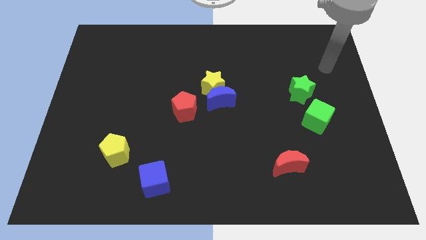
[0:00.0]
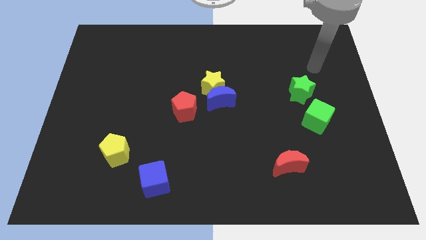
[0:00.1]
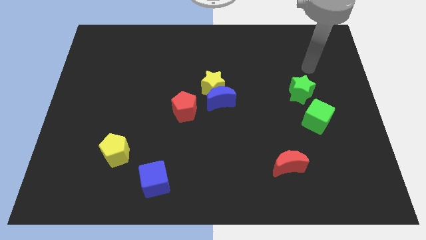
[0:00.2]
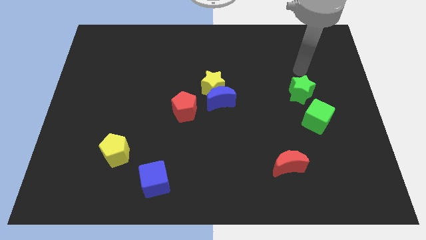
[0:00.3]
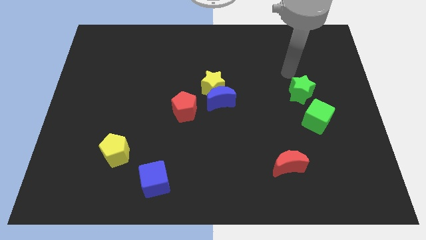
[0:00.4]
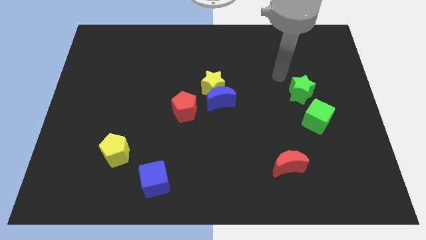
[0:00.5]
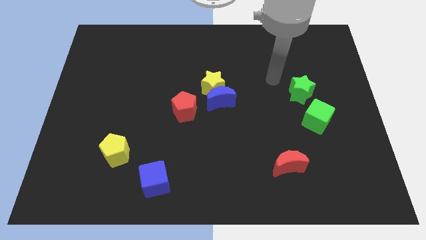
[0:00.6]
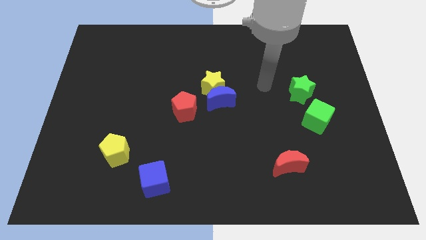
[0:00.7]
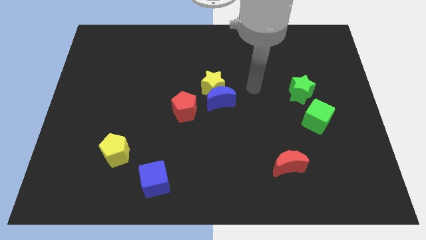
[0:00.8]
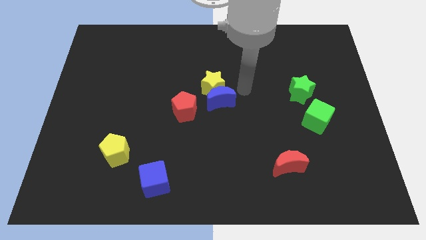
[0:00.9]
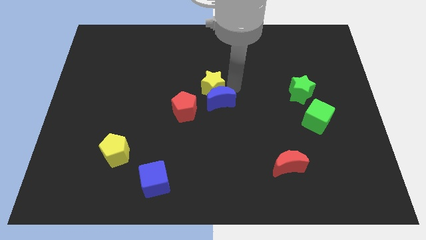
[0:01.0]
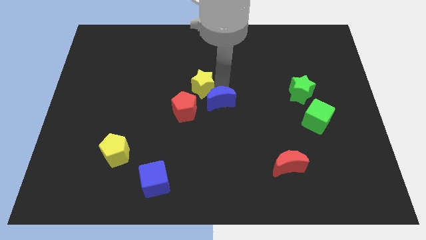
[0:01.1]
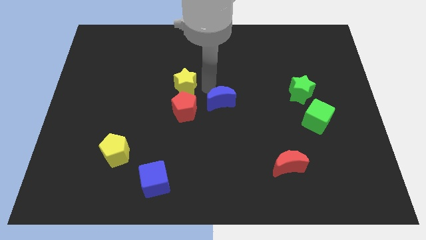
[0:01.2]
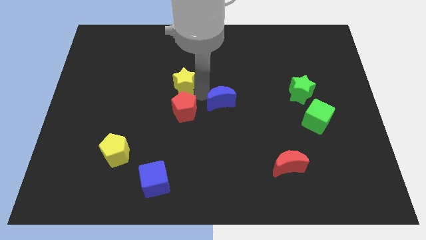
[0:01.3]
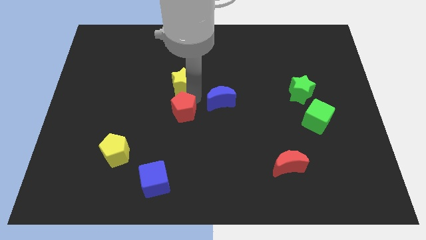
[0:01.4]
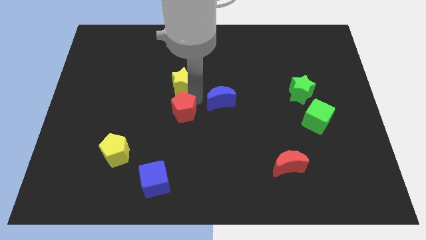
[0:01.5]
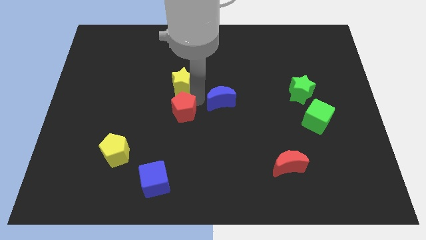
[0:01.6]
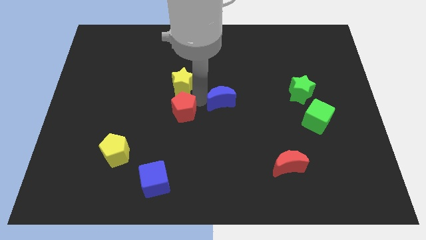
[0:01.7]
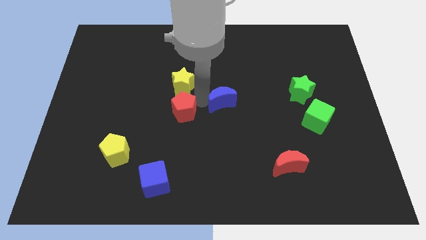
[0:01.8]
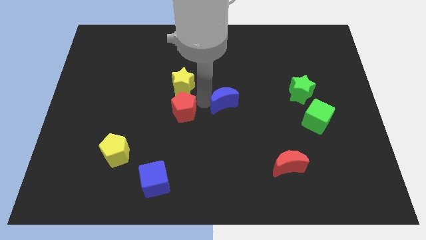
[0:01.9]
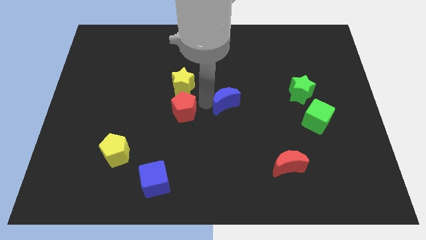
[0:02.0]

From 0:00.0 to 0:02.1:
move the blue moon away from the yellow star and red pentagon

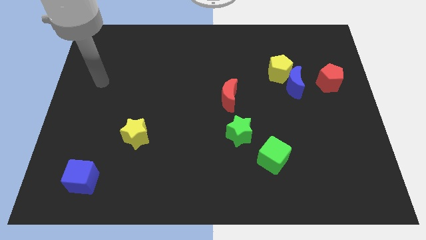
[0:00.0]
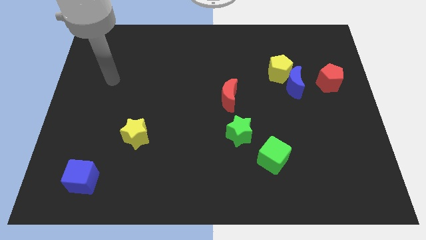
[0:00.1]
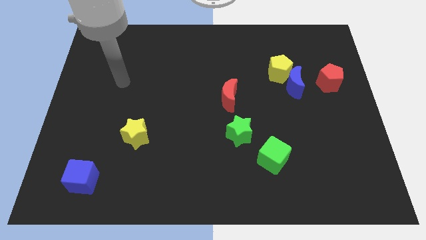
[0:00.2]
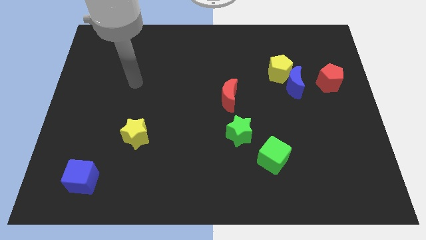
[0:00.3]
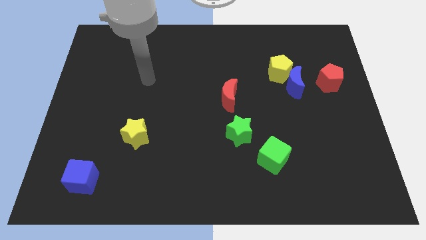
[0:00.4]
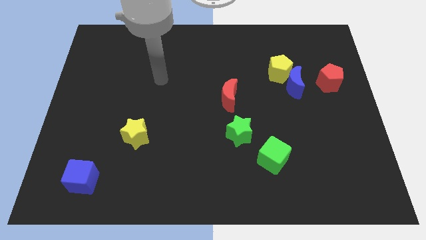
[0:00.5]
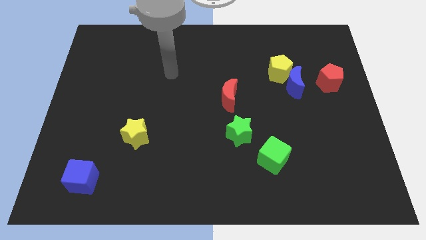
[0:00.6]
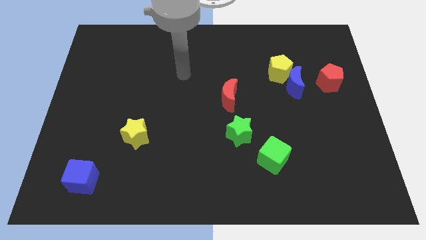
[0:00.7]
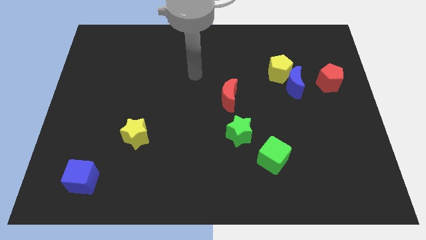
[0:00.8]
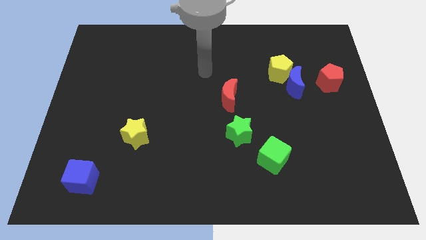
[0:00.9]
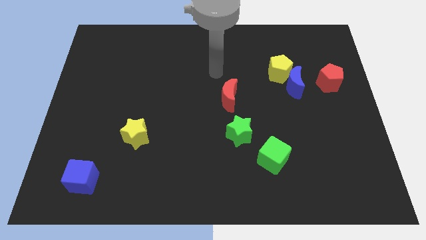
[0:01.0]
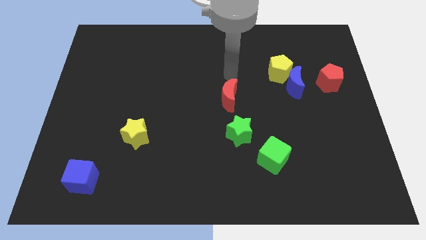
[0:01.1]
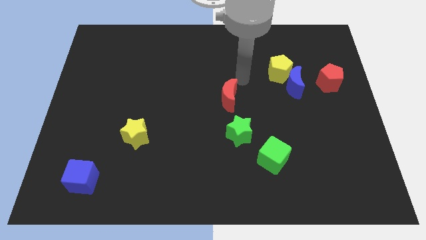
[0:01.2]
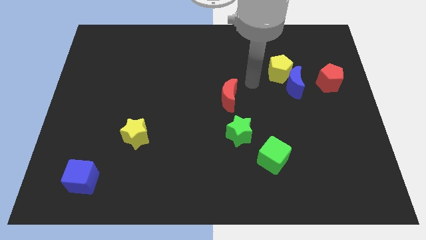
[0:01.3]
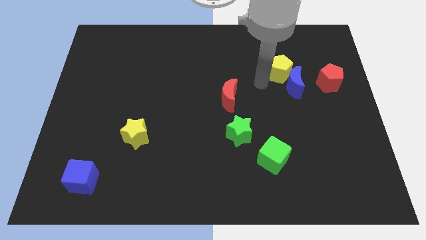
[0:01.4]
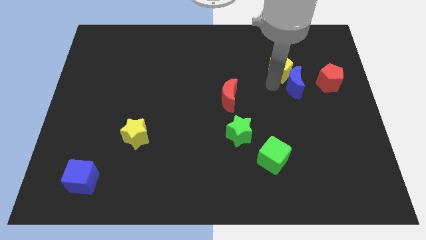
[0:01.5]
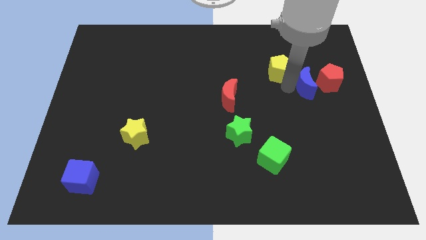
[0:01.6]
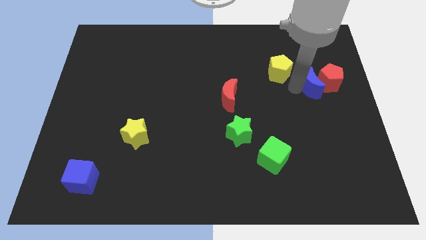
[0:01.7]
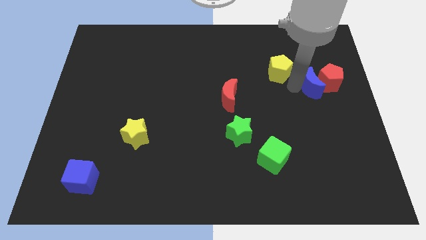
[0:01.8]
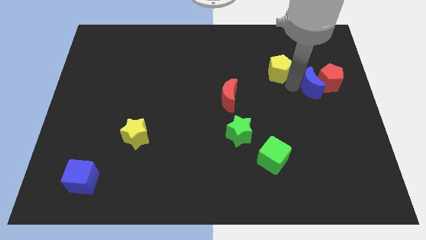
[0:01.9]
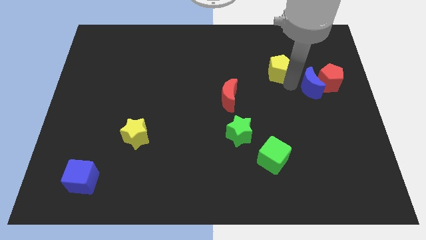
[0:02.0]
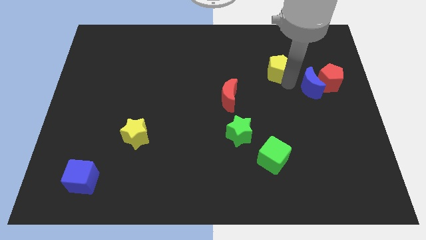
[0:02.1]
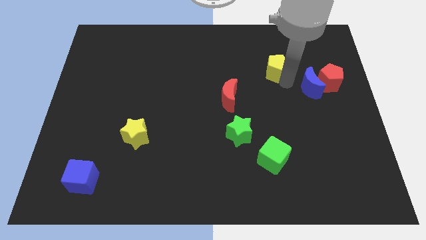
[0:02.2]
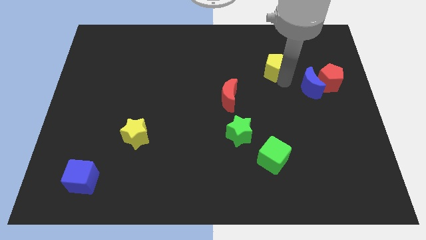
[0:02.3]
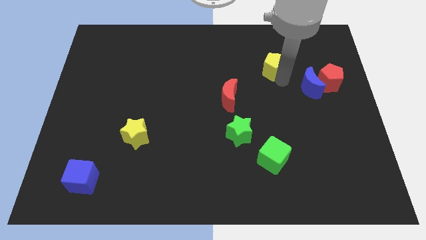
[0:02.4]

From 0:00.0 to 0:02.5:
separate the yellow pentagon from the blue moon

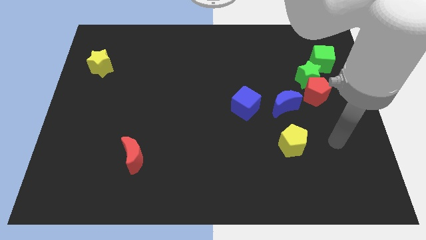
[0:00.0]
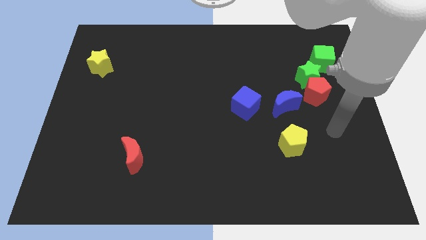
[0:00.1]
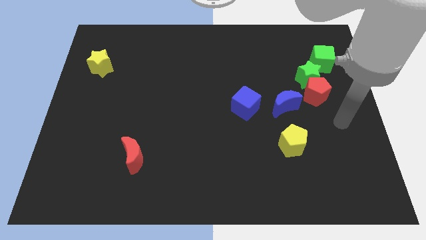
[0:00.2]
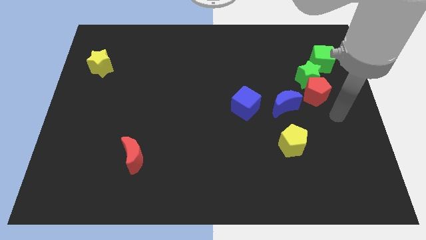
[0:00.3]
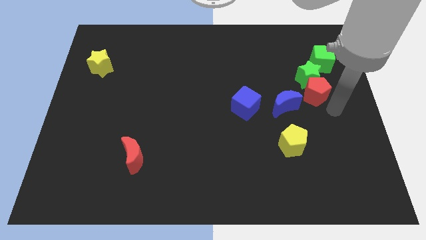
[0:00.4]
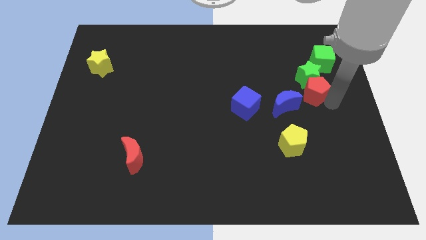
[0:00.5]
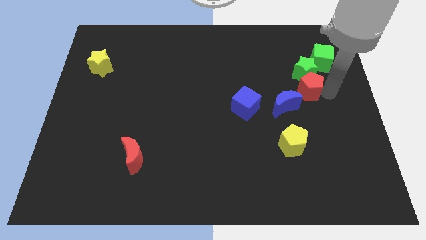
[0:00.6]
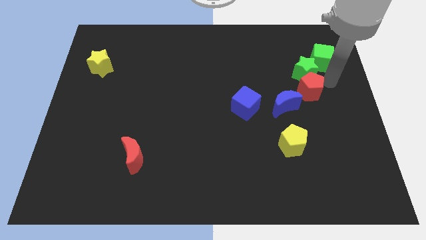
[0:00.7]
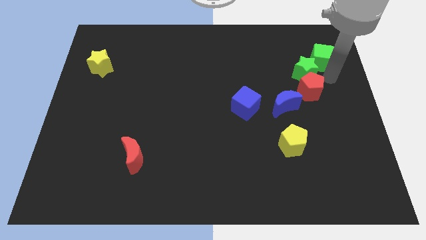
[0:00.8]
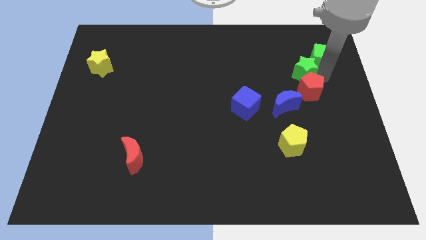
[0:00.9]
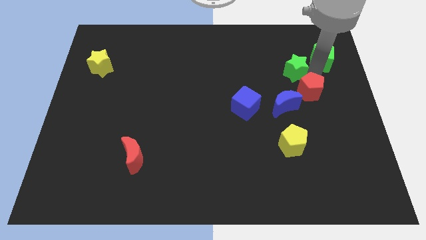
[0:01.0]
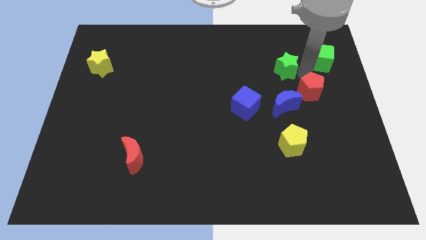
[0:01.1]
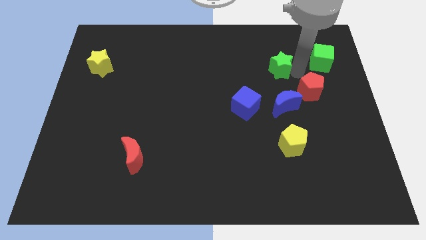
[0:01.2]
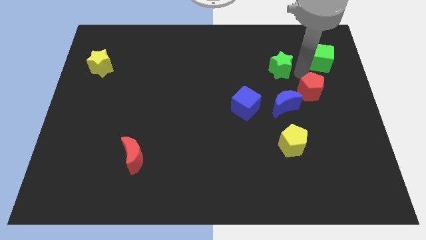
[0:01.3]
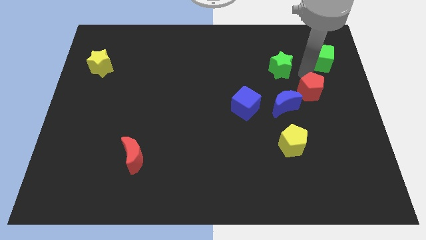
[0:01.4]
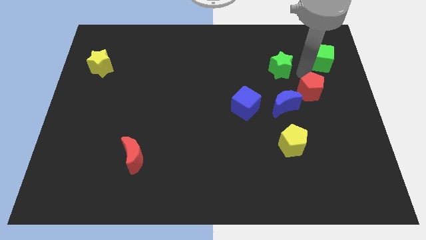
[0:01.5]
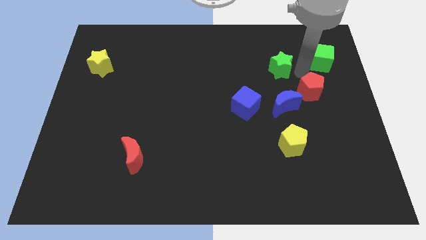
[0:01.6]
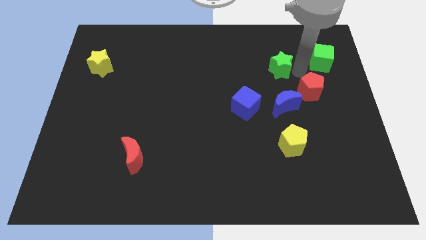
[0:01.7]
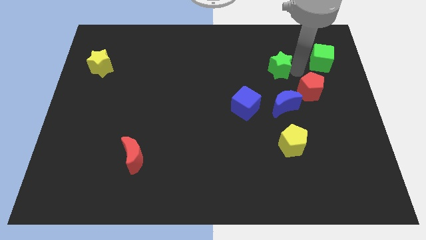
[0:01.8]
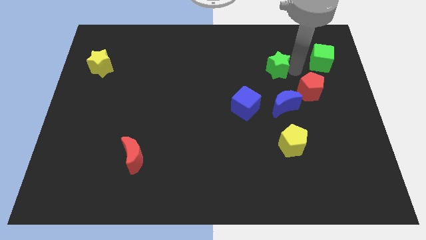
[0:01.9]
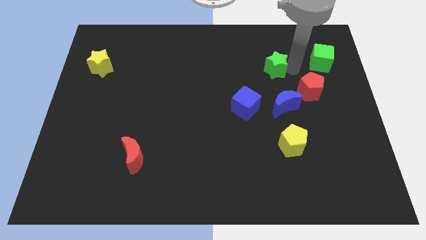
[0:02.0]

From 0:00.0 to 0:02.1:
pull the green star apart from the red pentagon and green cube

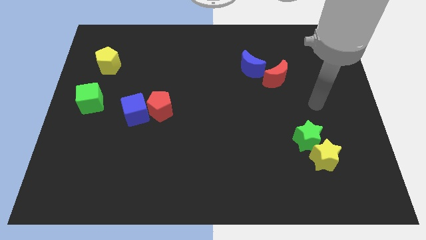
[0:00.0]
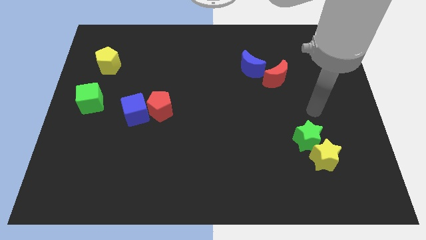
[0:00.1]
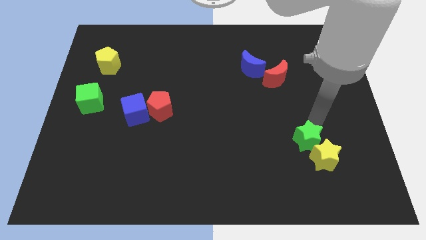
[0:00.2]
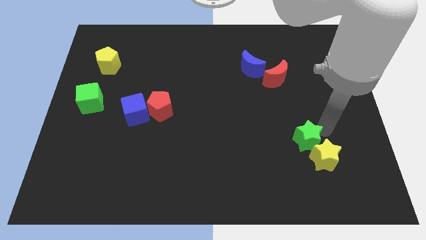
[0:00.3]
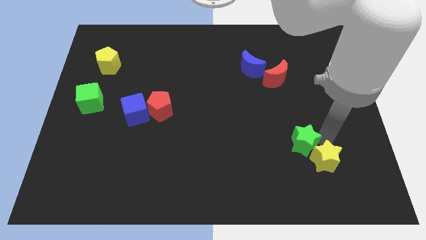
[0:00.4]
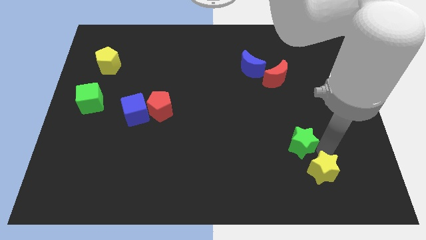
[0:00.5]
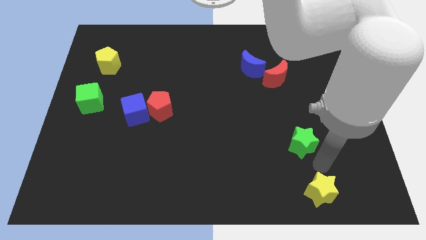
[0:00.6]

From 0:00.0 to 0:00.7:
separate the green star from the yellow star

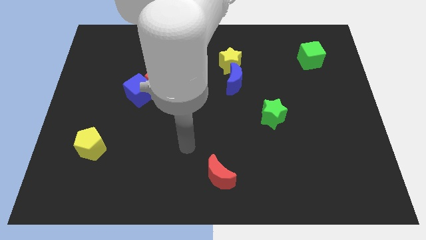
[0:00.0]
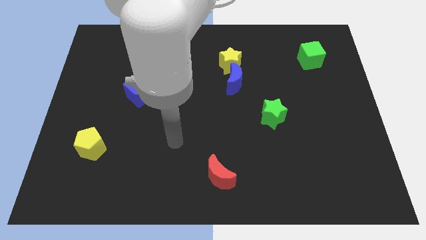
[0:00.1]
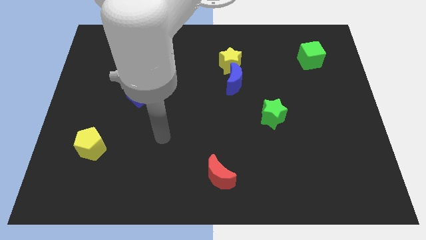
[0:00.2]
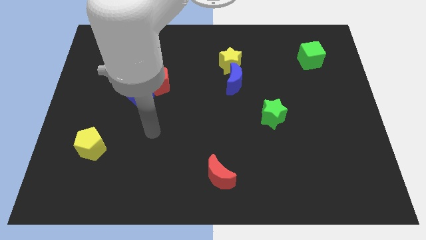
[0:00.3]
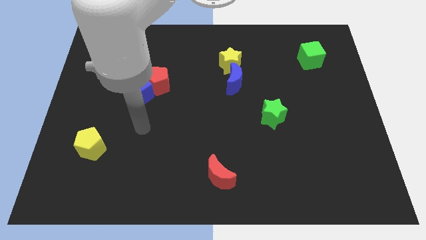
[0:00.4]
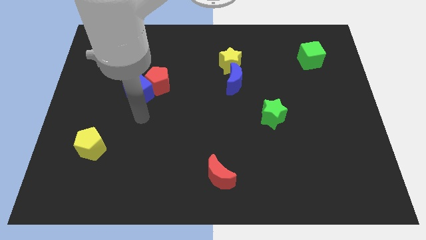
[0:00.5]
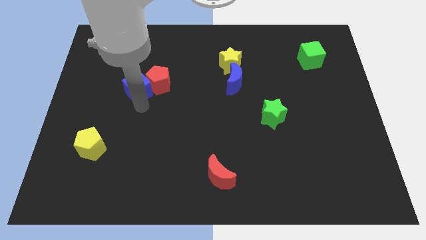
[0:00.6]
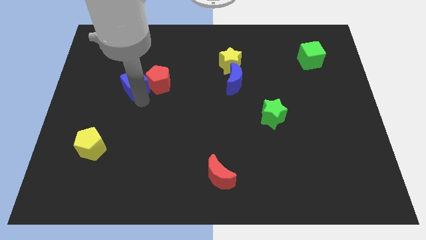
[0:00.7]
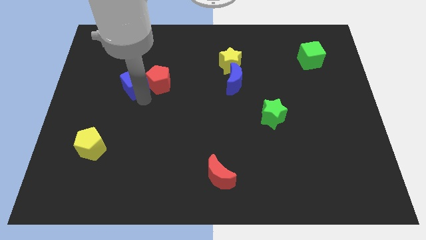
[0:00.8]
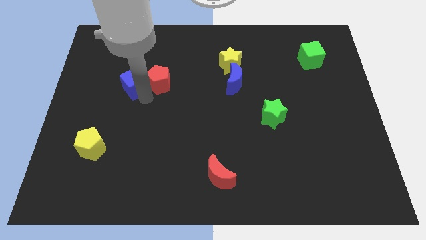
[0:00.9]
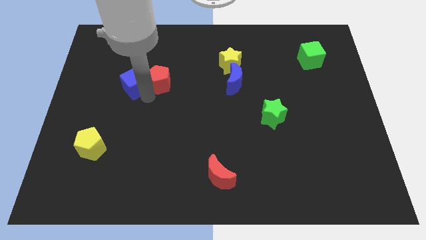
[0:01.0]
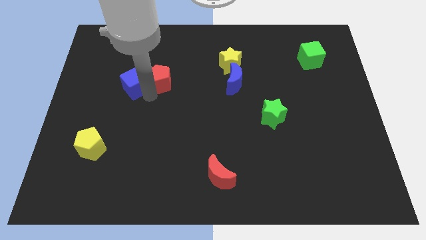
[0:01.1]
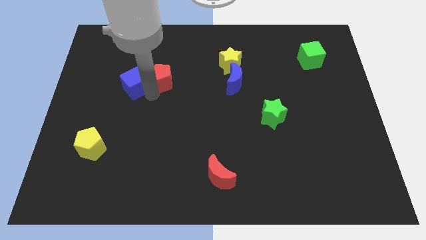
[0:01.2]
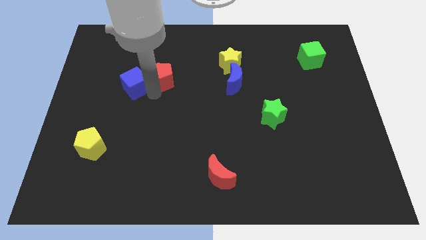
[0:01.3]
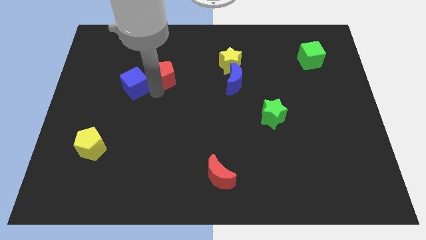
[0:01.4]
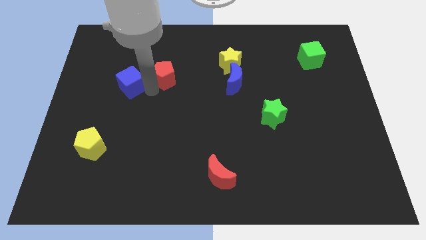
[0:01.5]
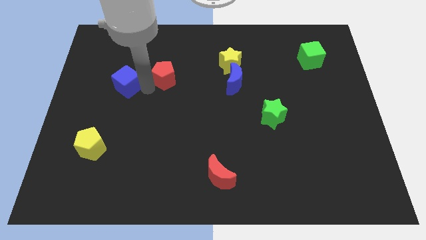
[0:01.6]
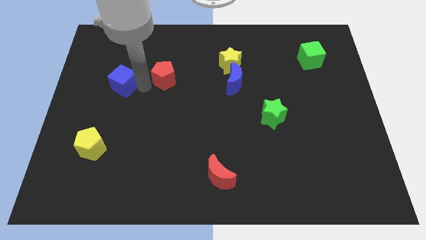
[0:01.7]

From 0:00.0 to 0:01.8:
move the red pentagon away from the blue cube
